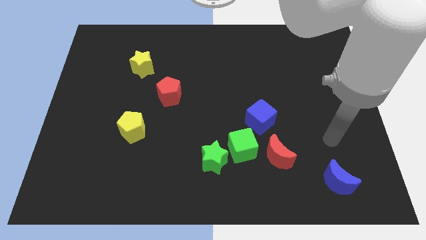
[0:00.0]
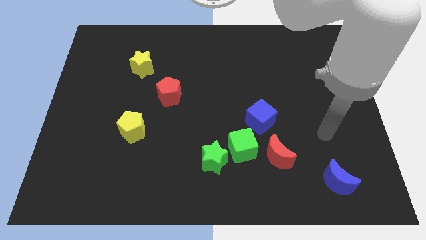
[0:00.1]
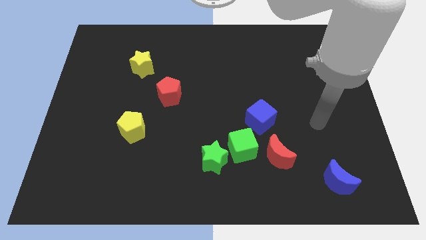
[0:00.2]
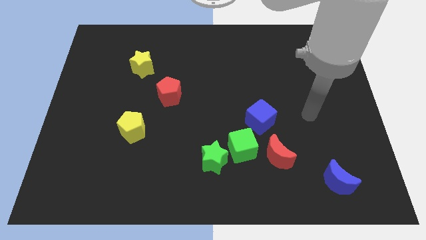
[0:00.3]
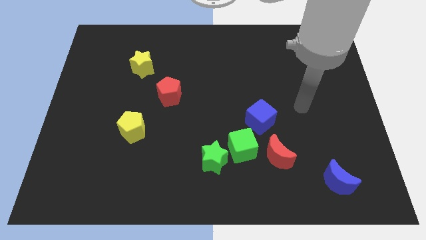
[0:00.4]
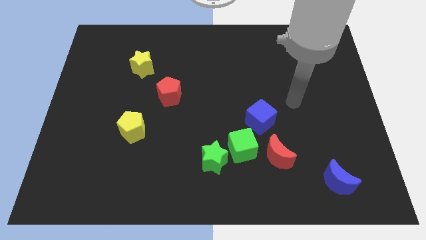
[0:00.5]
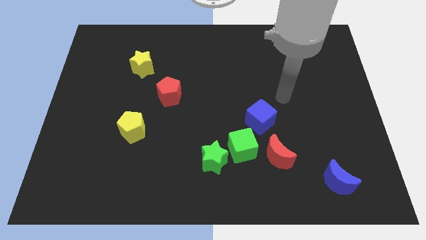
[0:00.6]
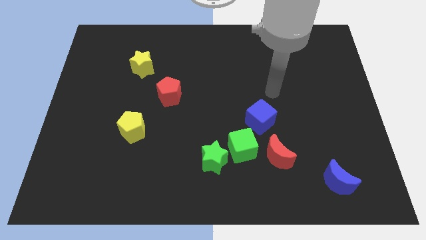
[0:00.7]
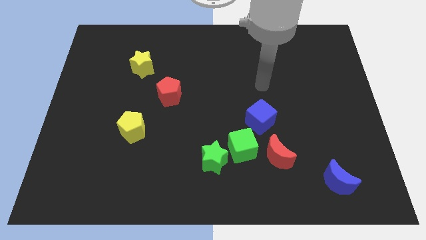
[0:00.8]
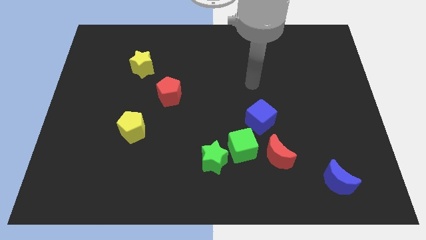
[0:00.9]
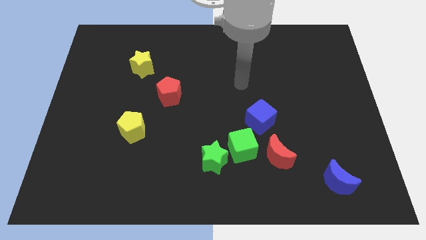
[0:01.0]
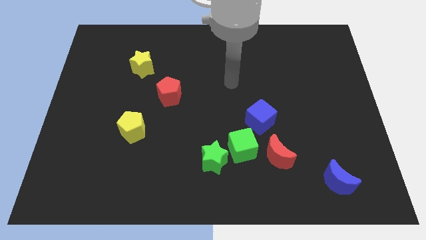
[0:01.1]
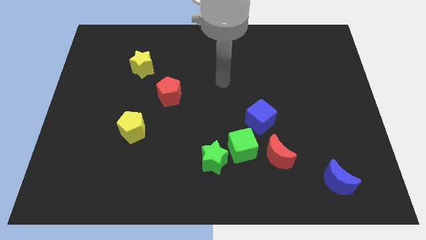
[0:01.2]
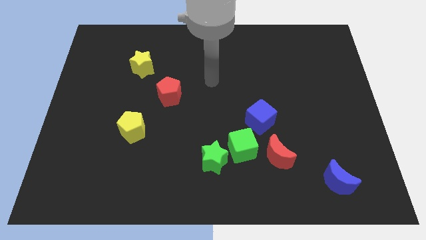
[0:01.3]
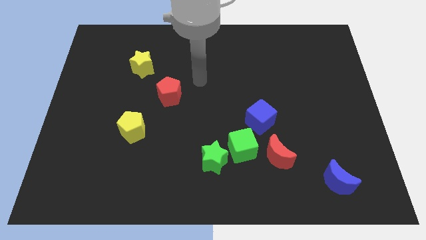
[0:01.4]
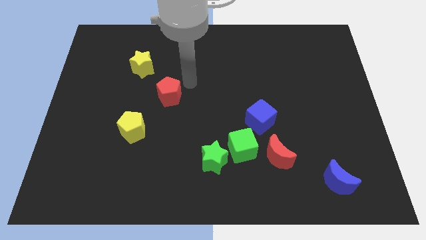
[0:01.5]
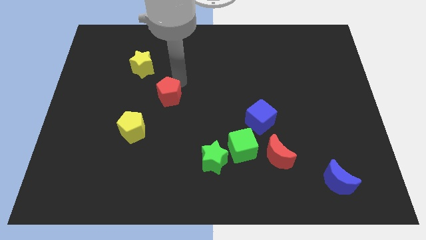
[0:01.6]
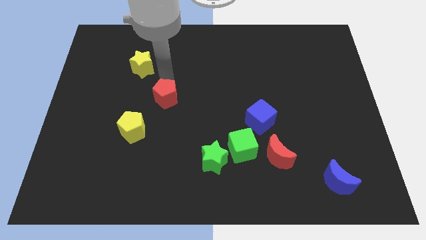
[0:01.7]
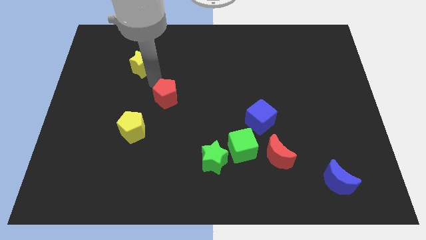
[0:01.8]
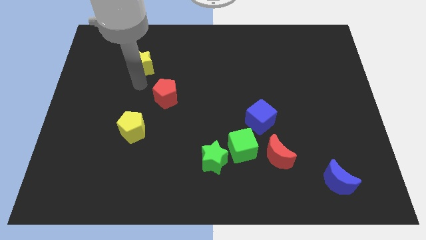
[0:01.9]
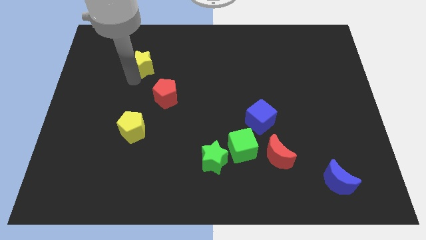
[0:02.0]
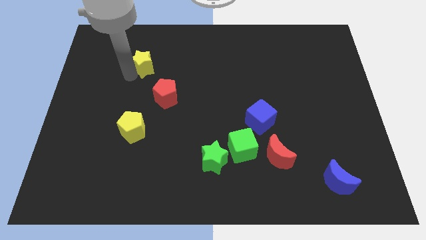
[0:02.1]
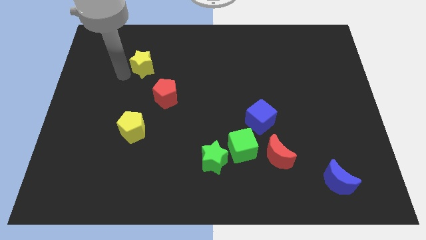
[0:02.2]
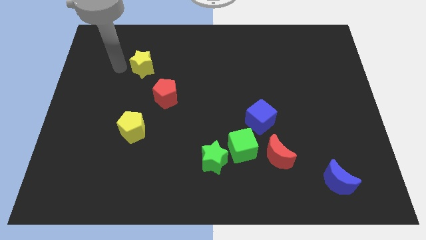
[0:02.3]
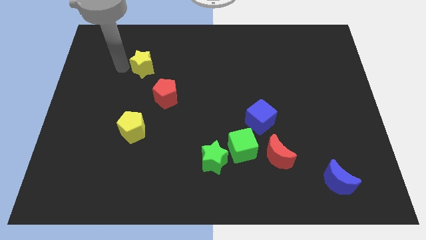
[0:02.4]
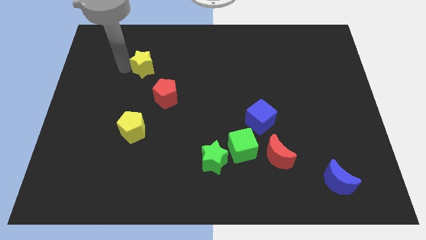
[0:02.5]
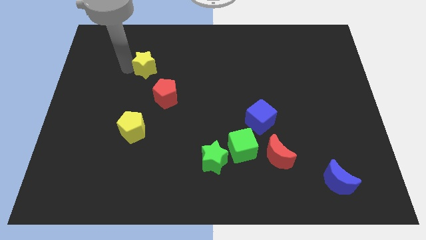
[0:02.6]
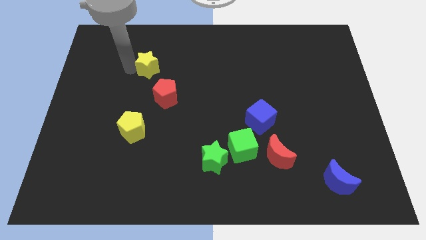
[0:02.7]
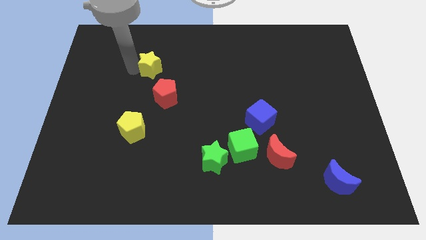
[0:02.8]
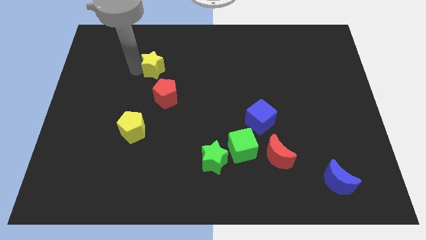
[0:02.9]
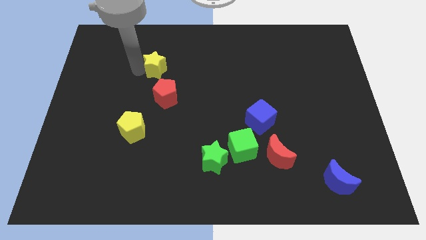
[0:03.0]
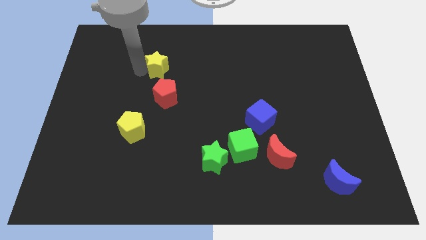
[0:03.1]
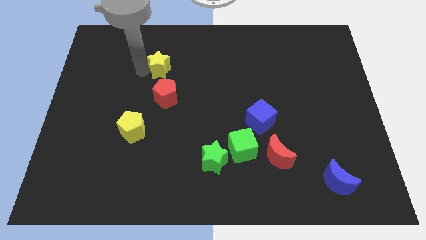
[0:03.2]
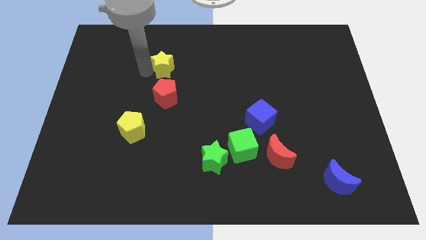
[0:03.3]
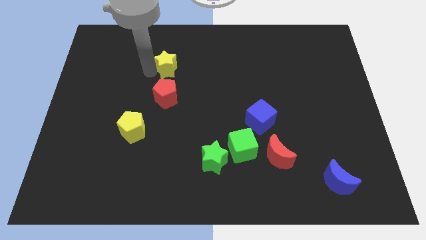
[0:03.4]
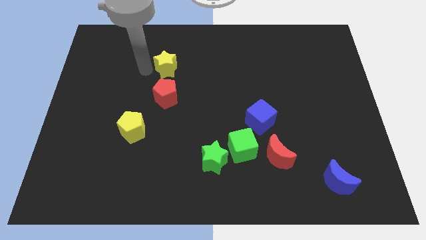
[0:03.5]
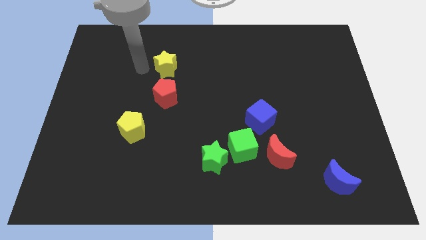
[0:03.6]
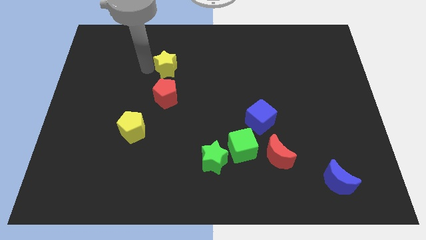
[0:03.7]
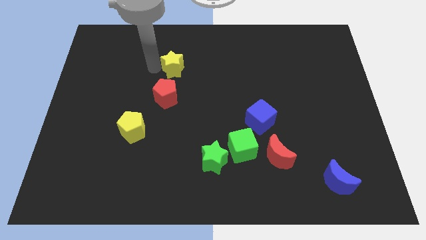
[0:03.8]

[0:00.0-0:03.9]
slightly move the yellow star right

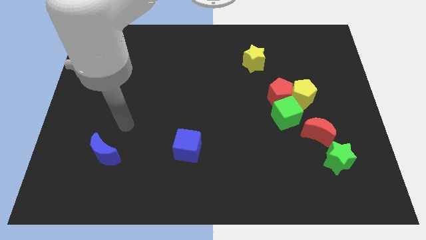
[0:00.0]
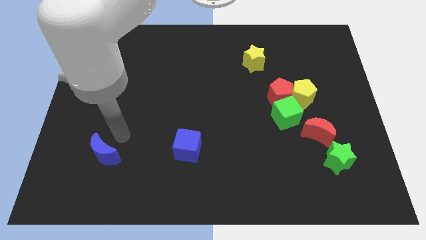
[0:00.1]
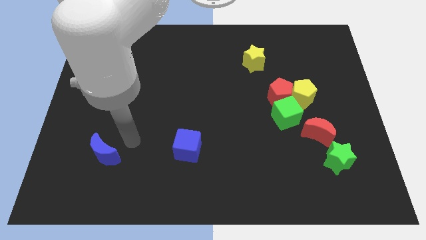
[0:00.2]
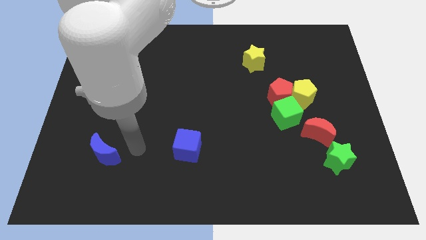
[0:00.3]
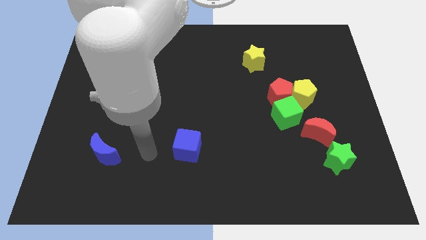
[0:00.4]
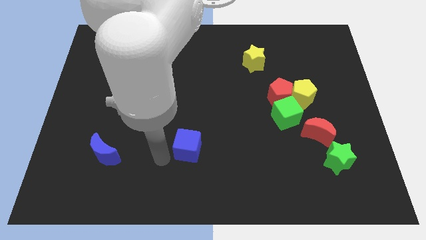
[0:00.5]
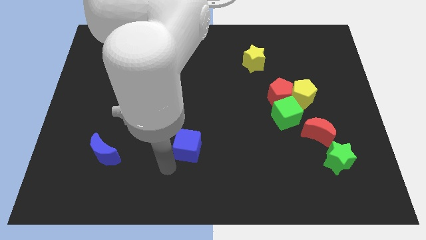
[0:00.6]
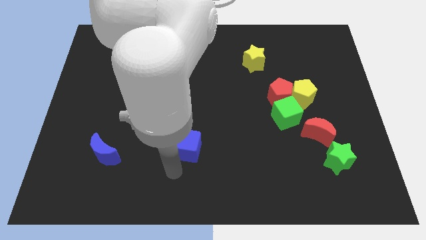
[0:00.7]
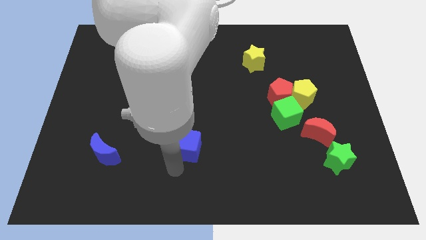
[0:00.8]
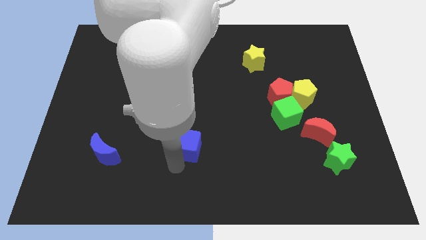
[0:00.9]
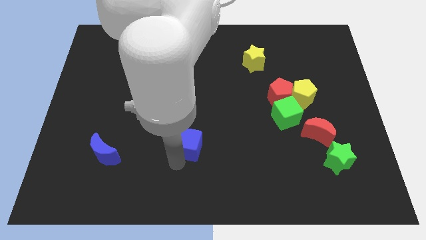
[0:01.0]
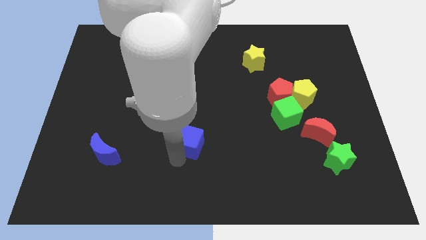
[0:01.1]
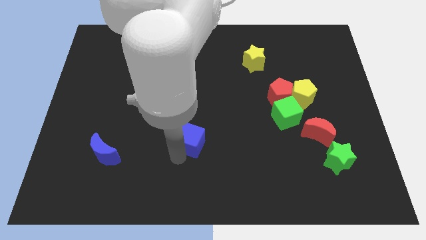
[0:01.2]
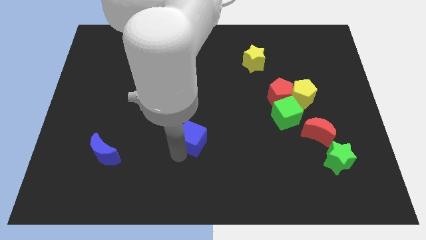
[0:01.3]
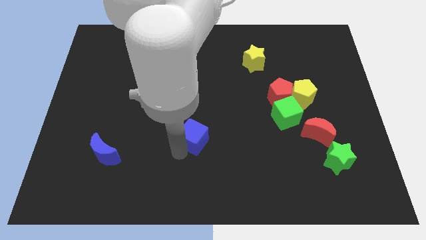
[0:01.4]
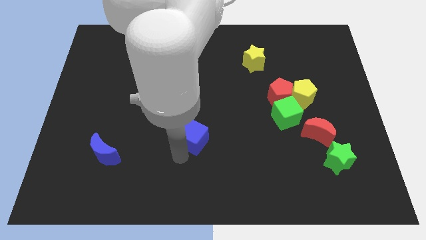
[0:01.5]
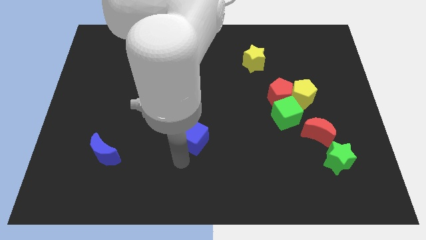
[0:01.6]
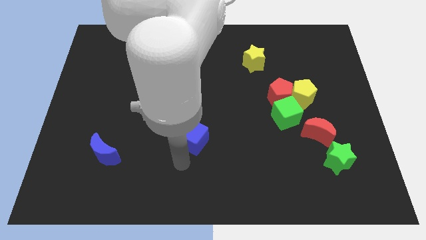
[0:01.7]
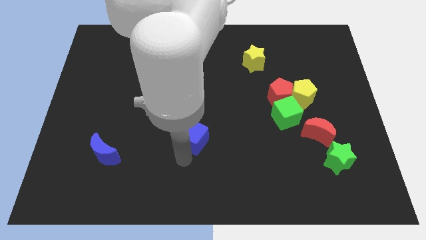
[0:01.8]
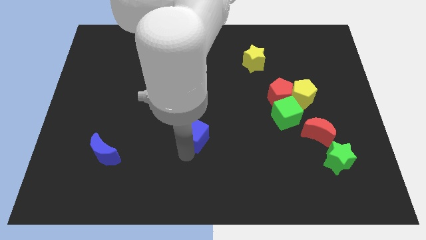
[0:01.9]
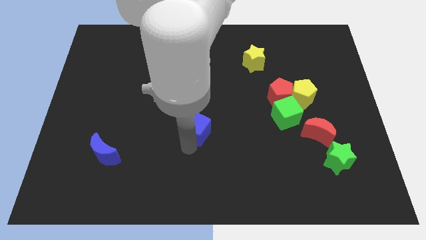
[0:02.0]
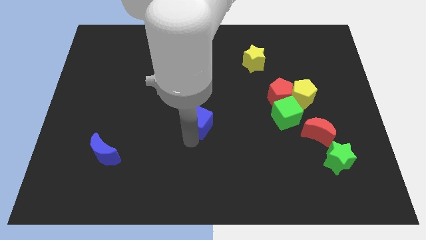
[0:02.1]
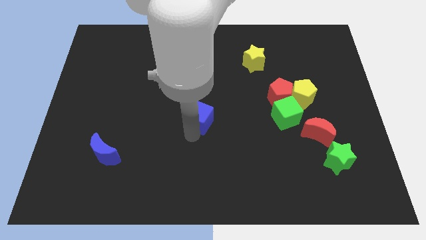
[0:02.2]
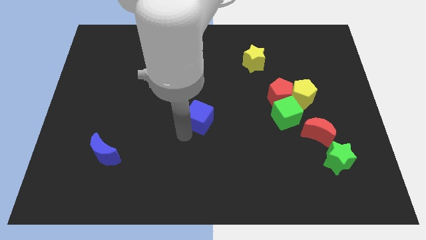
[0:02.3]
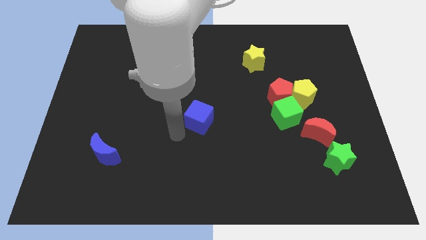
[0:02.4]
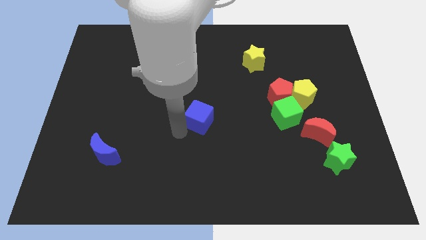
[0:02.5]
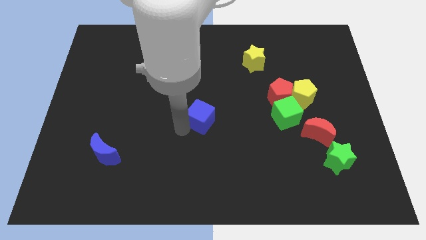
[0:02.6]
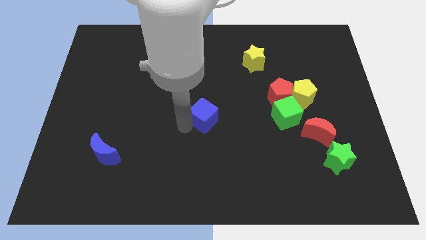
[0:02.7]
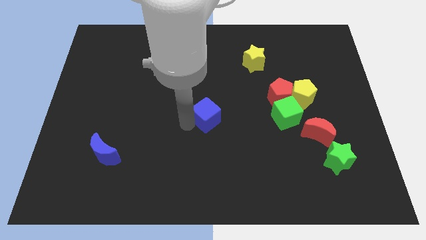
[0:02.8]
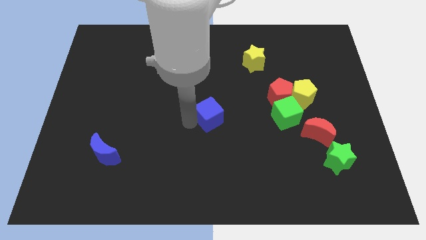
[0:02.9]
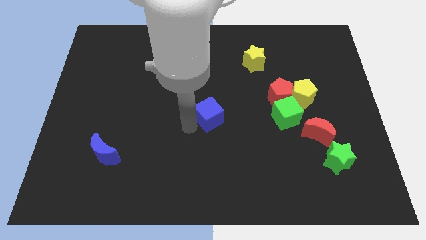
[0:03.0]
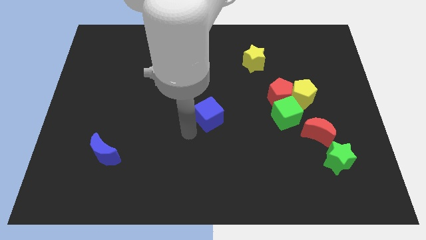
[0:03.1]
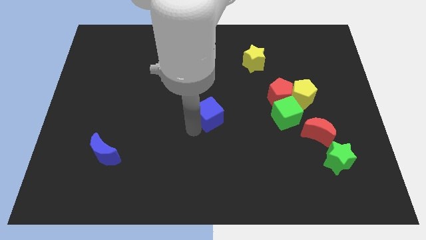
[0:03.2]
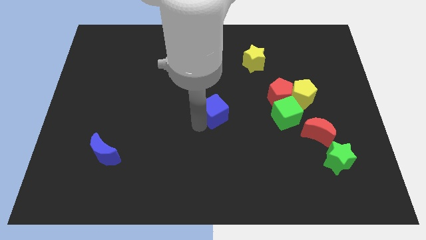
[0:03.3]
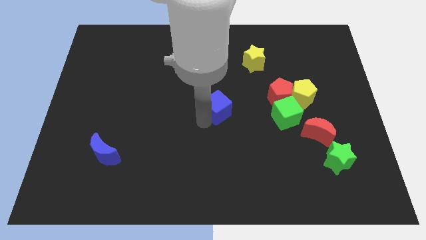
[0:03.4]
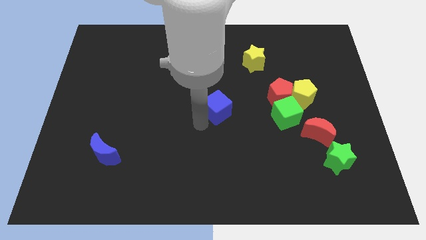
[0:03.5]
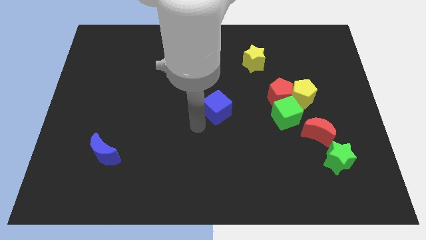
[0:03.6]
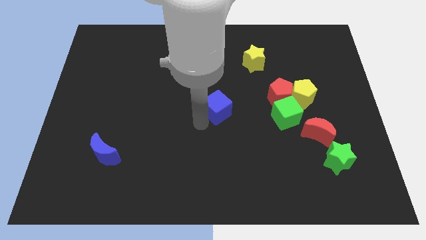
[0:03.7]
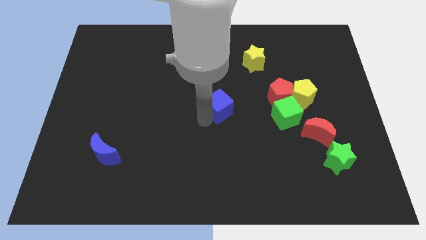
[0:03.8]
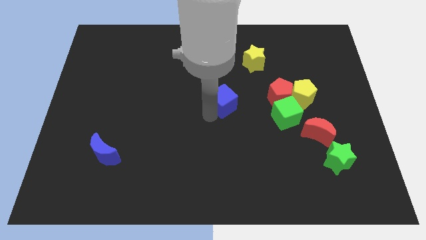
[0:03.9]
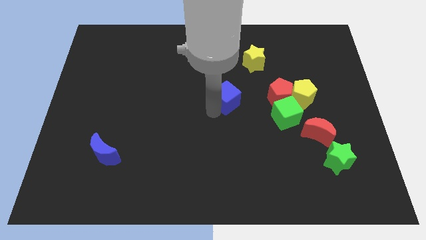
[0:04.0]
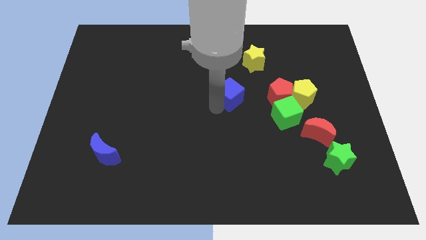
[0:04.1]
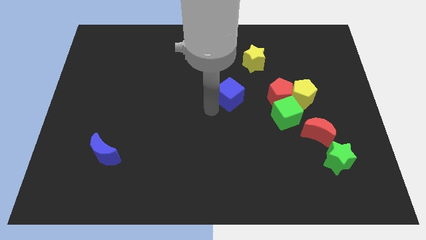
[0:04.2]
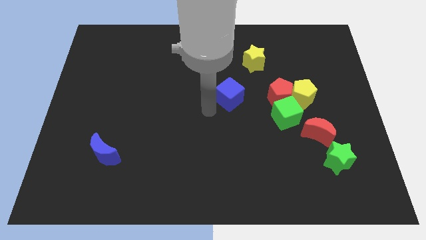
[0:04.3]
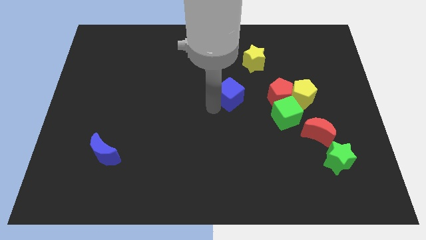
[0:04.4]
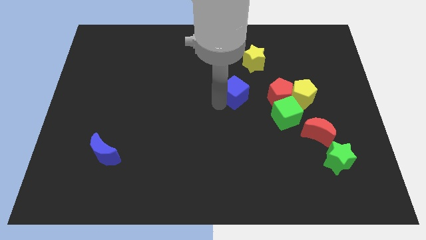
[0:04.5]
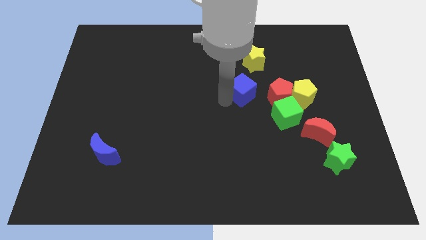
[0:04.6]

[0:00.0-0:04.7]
push the blue cube diagonally upwards and to the right
